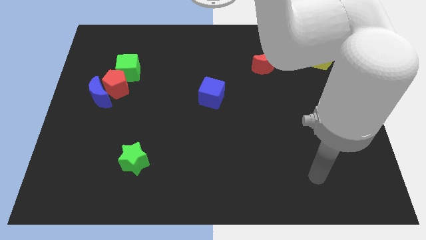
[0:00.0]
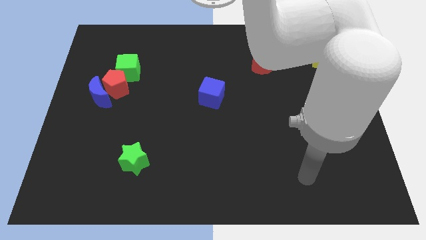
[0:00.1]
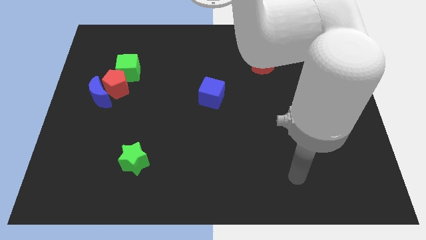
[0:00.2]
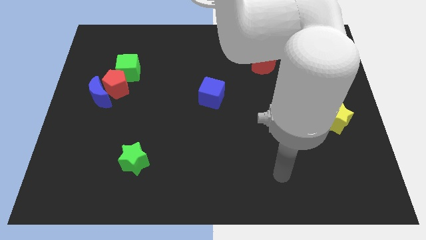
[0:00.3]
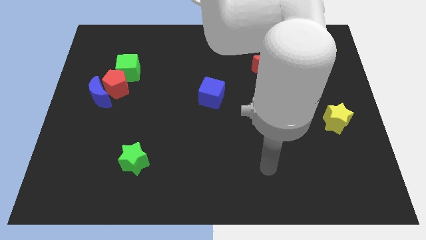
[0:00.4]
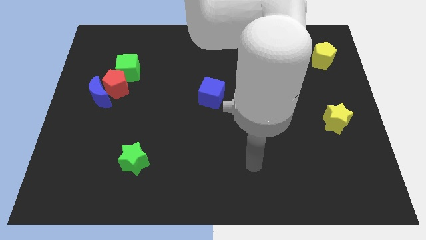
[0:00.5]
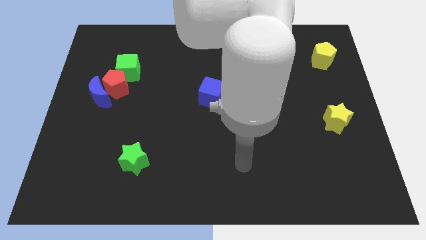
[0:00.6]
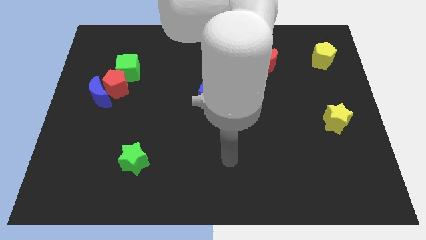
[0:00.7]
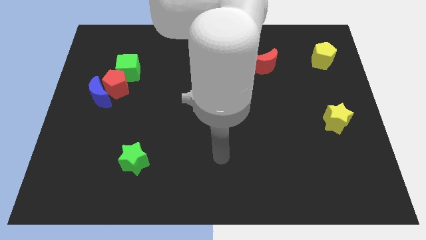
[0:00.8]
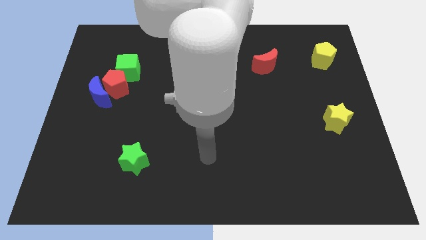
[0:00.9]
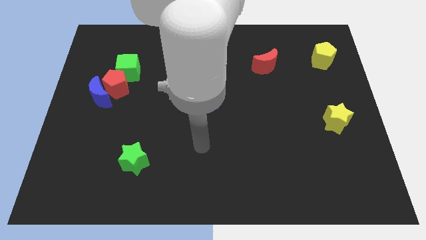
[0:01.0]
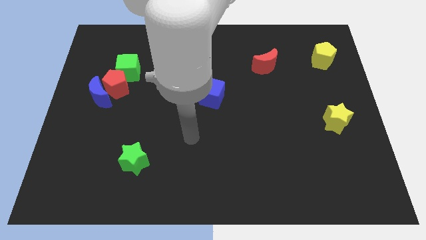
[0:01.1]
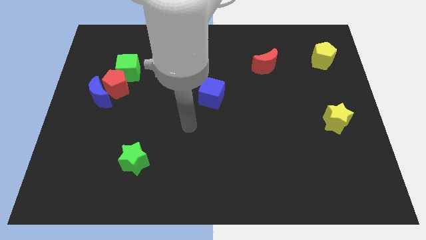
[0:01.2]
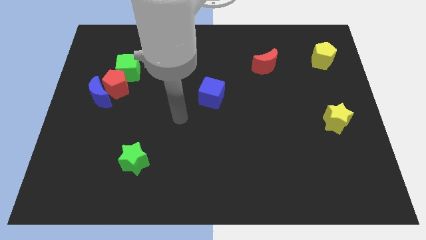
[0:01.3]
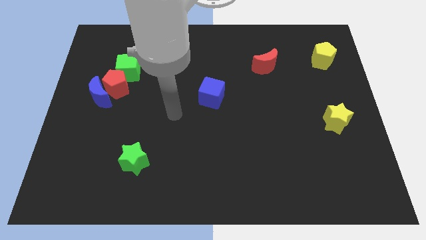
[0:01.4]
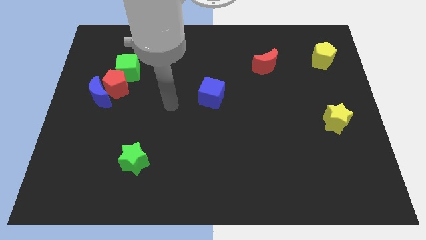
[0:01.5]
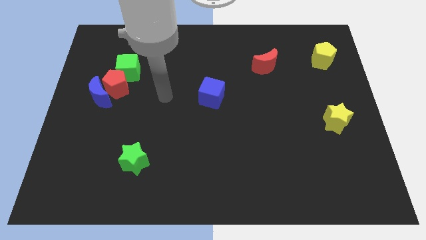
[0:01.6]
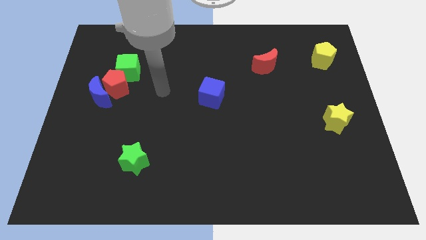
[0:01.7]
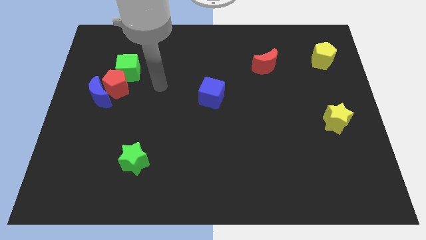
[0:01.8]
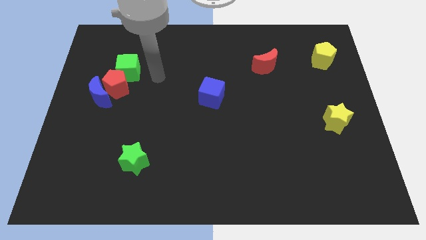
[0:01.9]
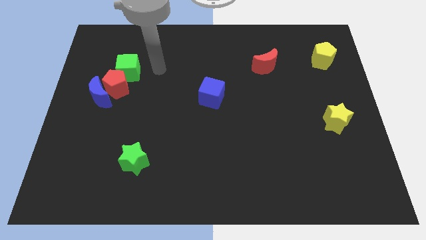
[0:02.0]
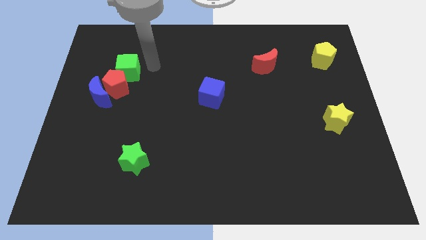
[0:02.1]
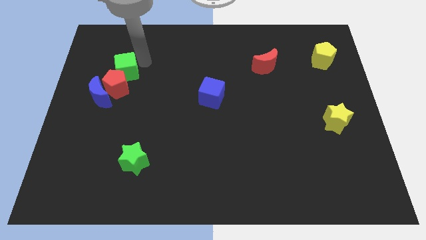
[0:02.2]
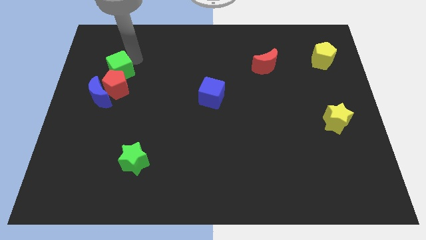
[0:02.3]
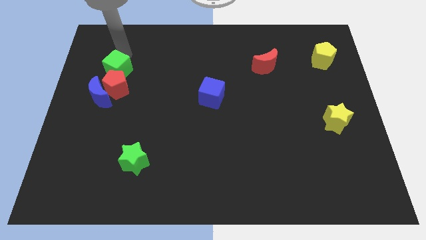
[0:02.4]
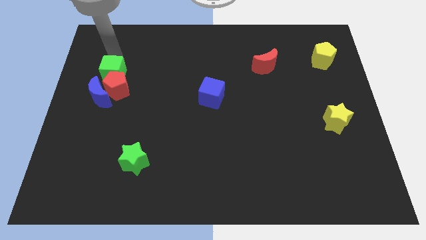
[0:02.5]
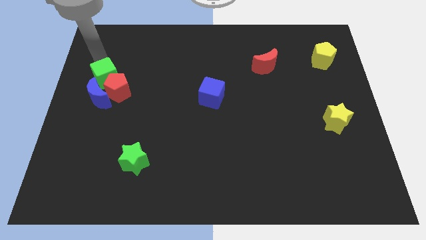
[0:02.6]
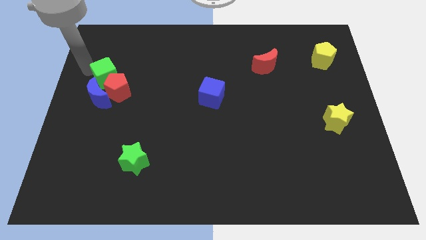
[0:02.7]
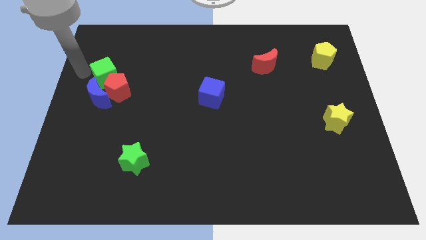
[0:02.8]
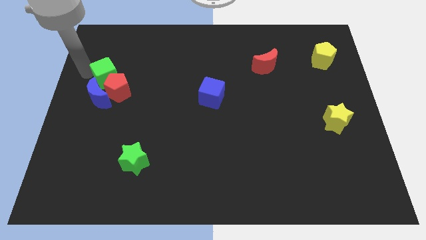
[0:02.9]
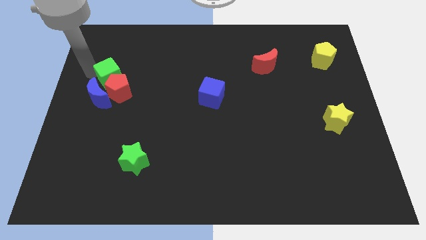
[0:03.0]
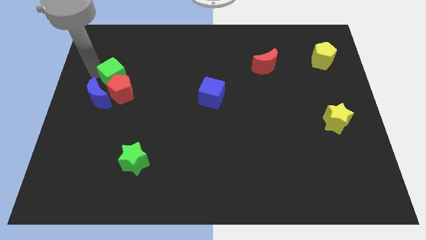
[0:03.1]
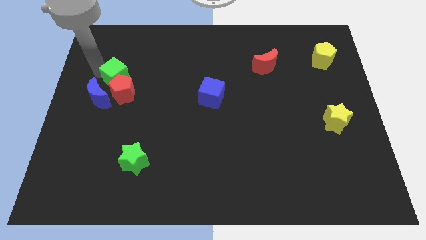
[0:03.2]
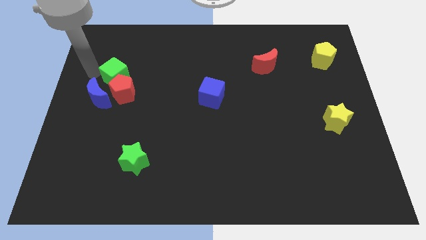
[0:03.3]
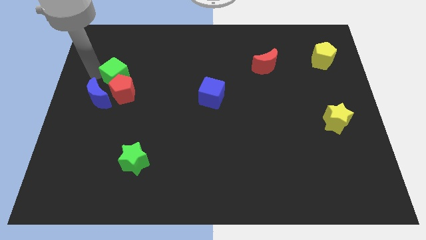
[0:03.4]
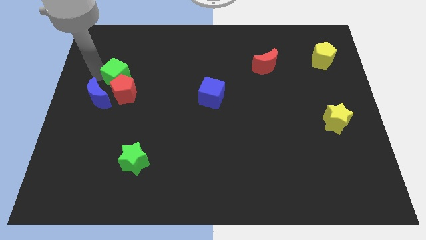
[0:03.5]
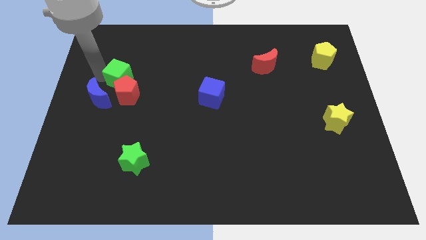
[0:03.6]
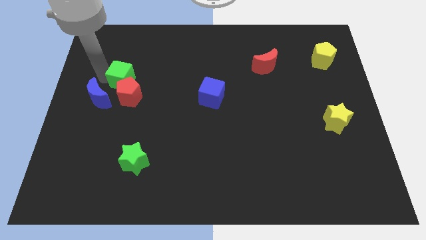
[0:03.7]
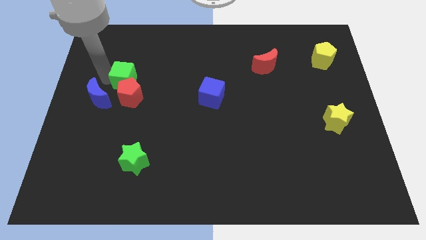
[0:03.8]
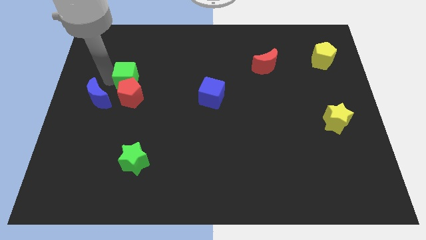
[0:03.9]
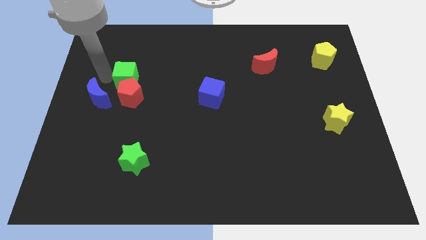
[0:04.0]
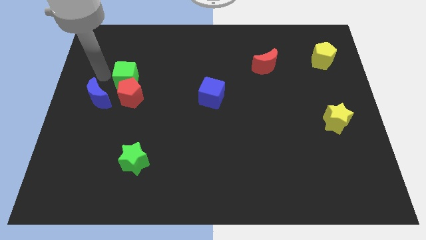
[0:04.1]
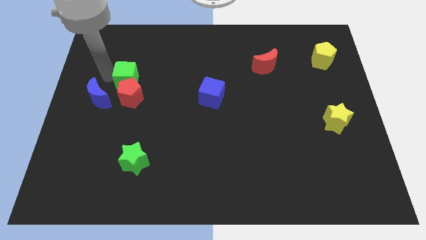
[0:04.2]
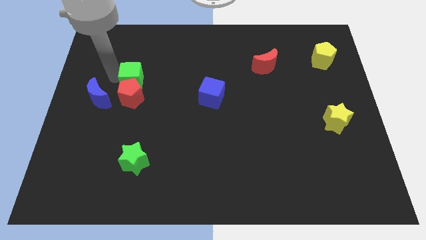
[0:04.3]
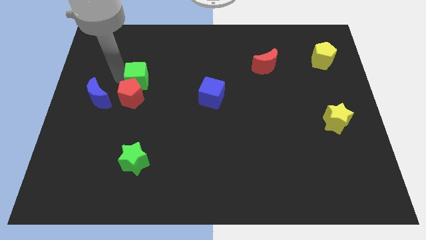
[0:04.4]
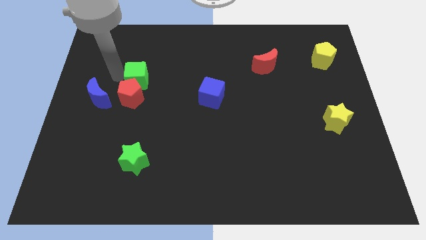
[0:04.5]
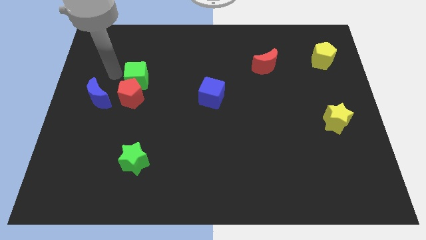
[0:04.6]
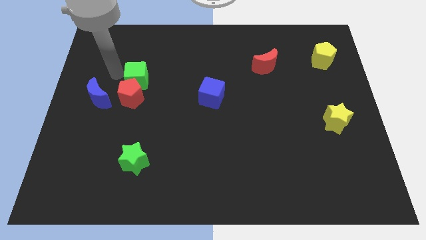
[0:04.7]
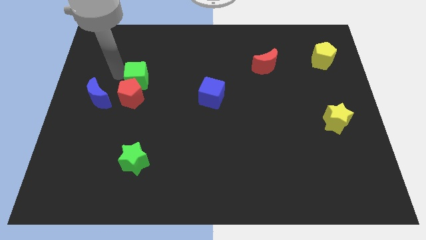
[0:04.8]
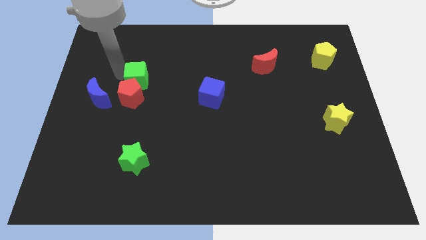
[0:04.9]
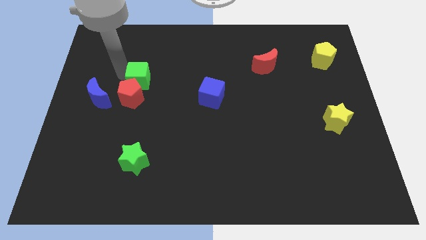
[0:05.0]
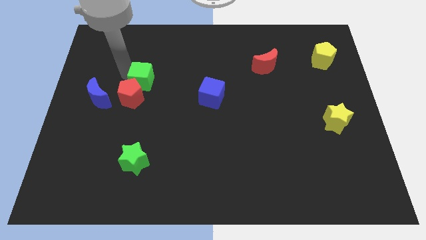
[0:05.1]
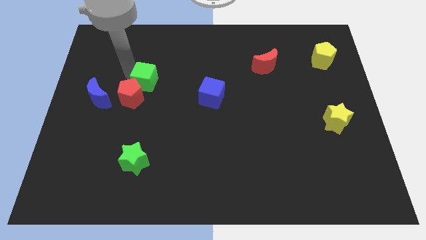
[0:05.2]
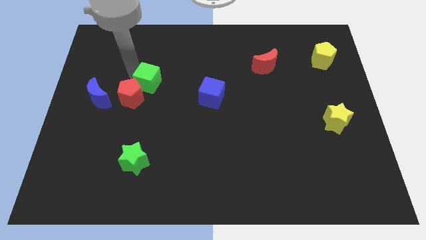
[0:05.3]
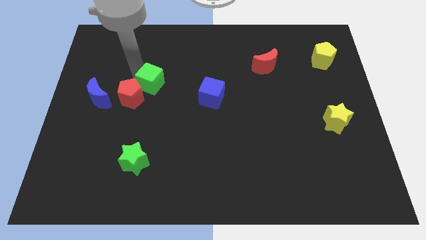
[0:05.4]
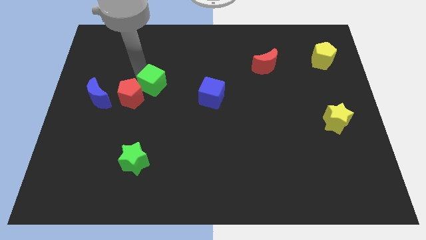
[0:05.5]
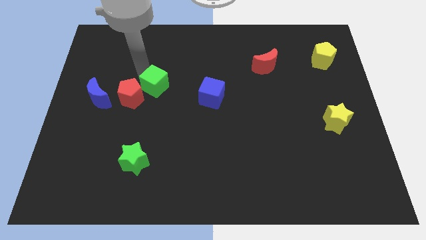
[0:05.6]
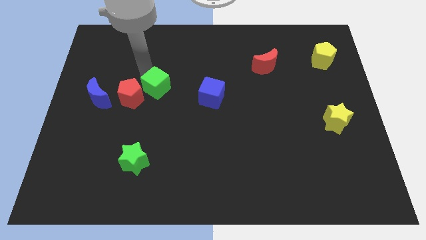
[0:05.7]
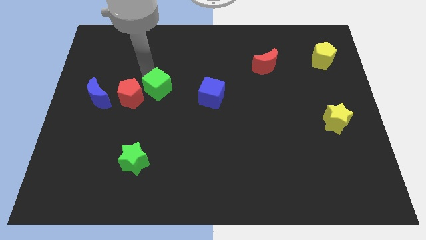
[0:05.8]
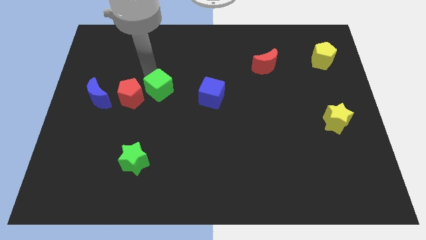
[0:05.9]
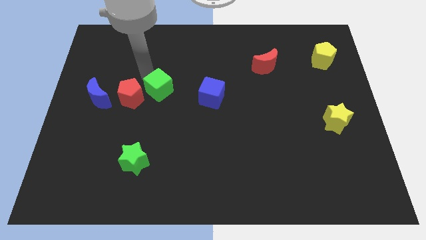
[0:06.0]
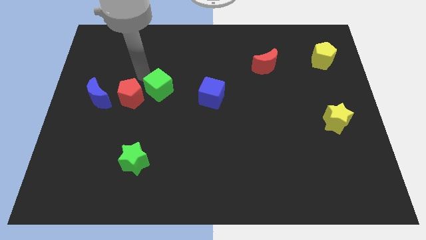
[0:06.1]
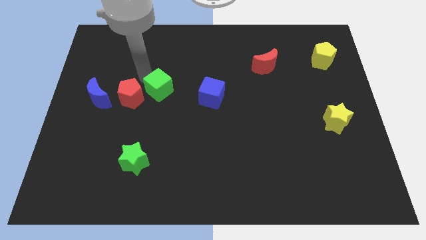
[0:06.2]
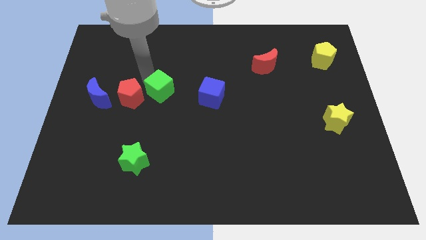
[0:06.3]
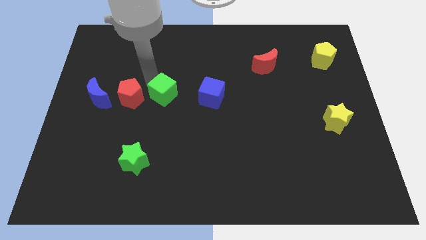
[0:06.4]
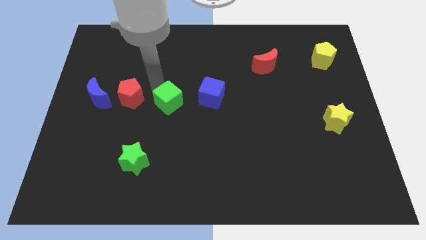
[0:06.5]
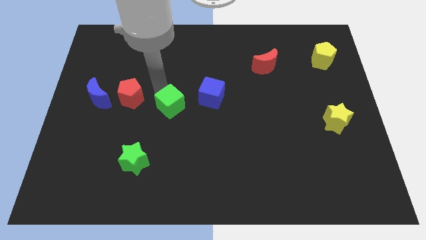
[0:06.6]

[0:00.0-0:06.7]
push the green cube to the bottom left side of the blue cube
